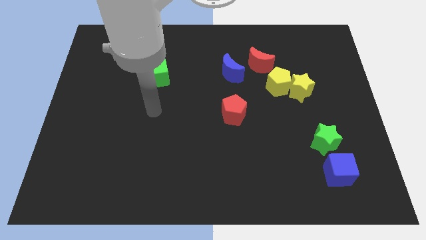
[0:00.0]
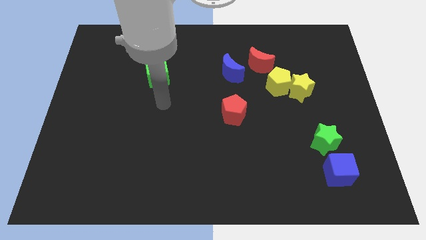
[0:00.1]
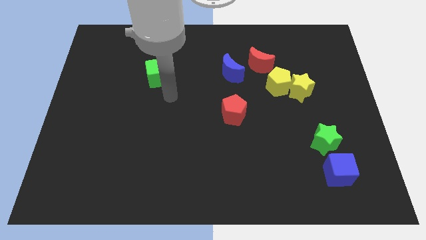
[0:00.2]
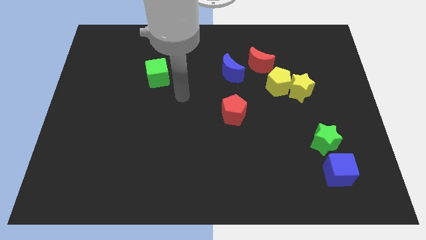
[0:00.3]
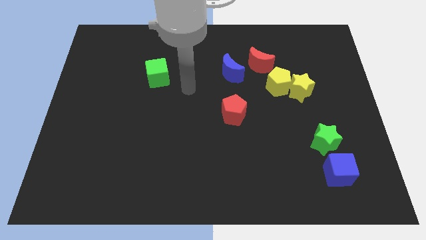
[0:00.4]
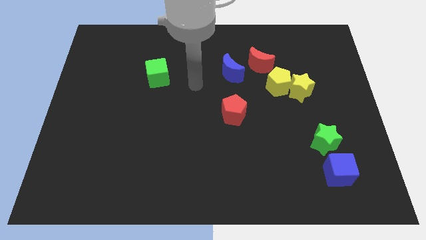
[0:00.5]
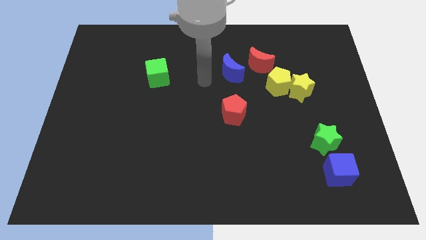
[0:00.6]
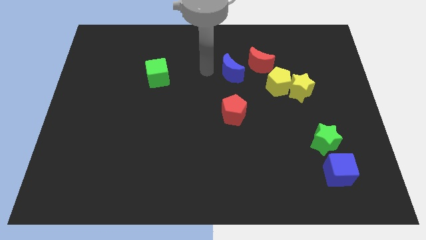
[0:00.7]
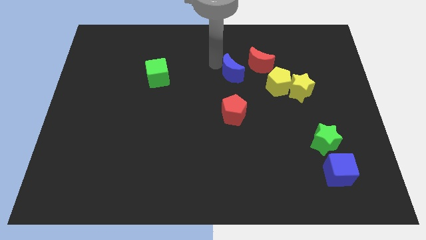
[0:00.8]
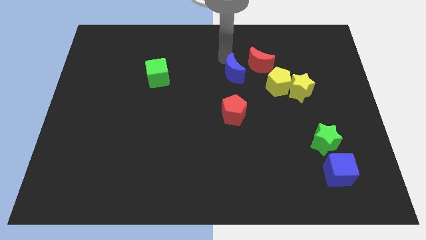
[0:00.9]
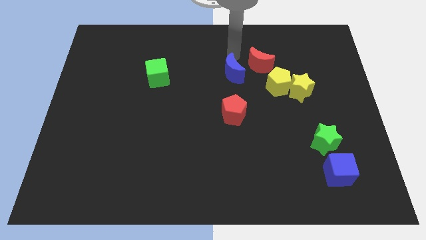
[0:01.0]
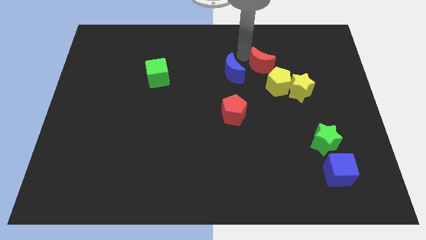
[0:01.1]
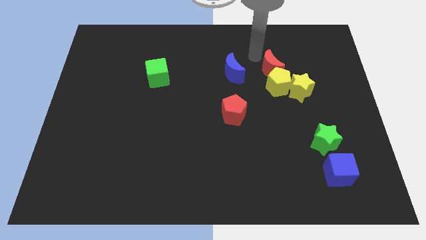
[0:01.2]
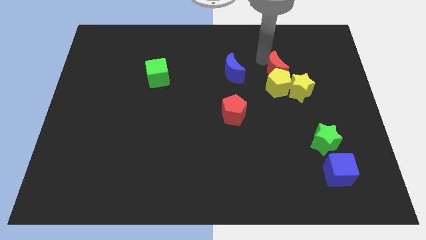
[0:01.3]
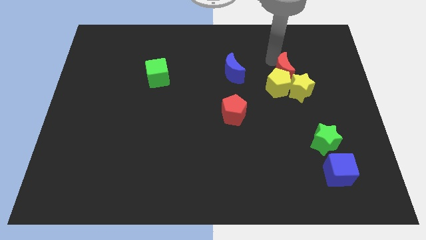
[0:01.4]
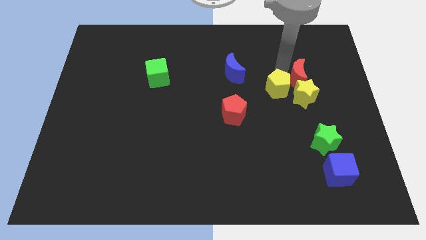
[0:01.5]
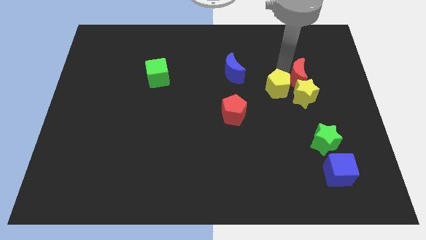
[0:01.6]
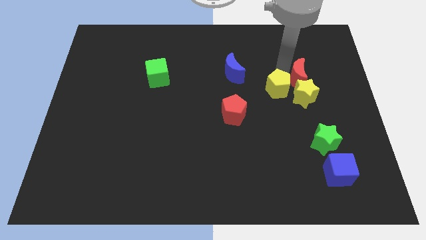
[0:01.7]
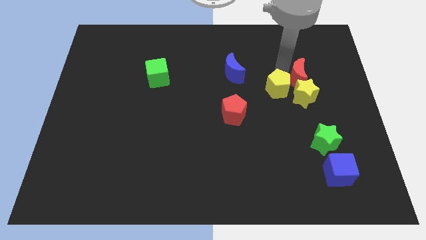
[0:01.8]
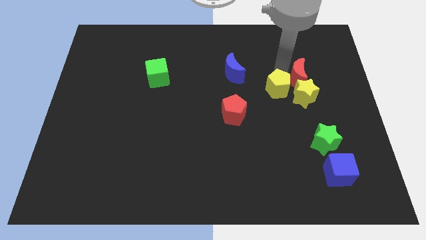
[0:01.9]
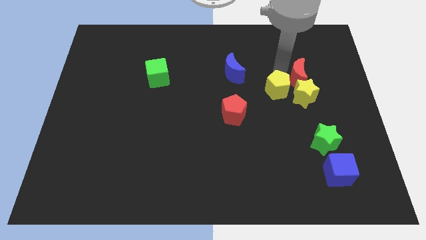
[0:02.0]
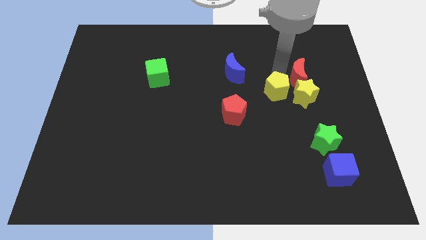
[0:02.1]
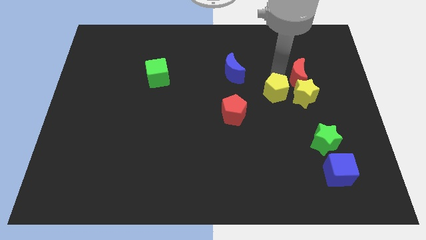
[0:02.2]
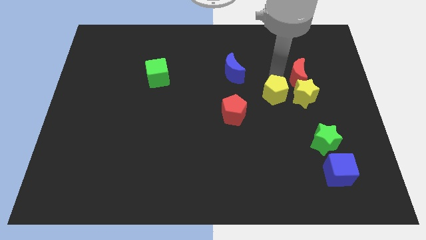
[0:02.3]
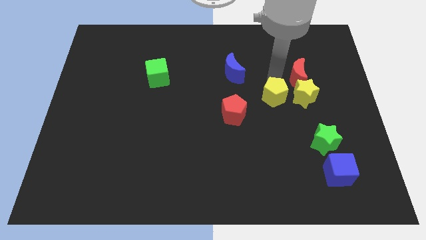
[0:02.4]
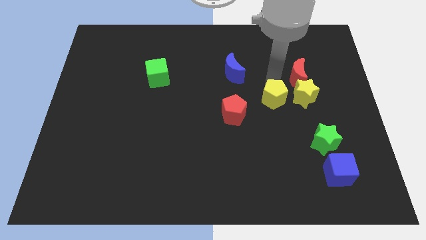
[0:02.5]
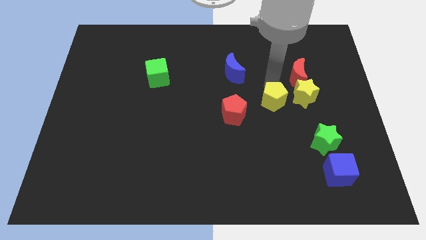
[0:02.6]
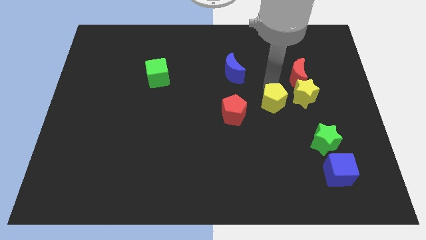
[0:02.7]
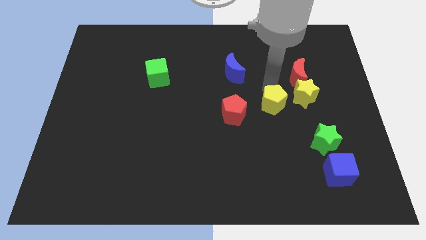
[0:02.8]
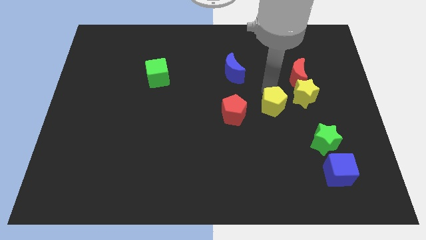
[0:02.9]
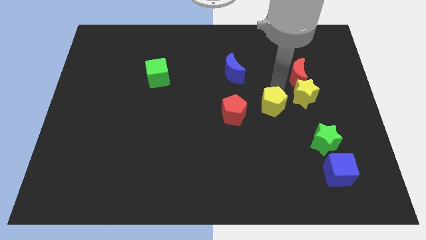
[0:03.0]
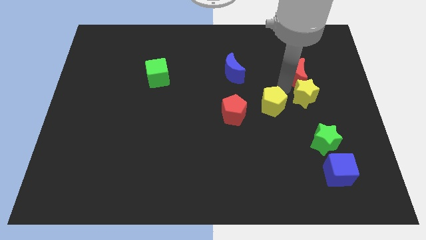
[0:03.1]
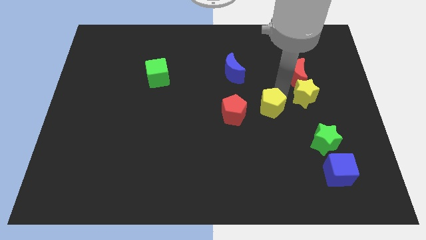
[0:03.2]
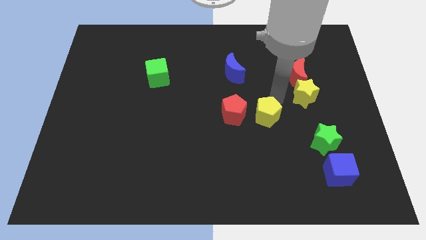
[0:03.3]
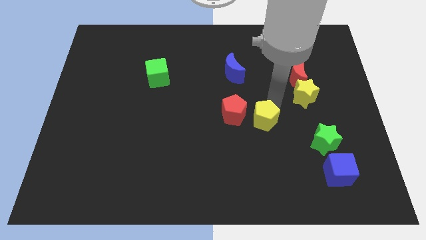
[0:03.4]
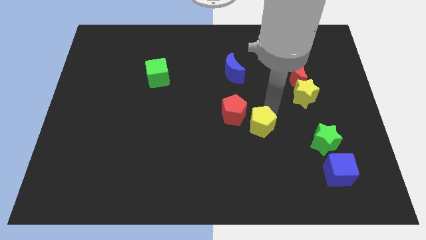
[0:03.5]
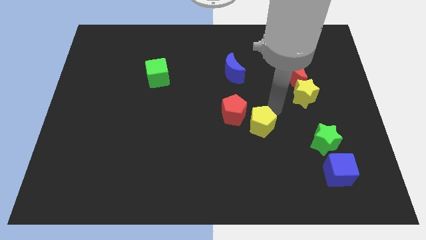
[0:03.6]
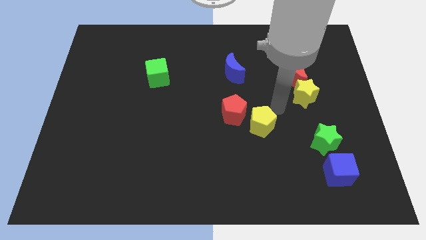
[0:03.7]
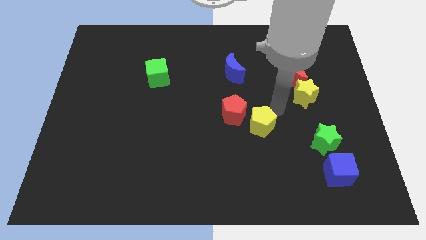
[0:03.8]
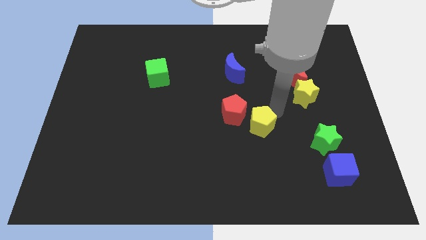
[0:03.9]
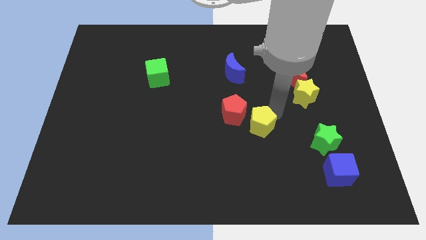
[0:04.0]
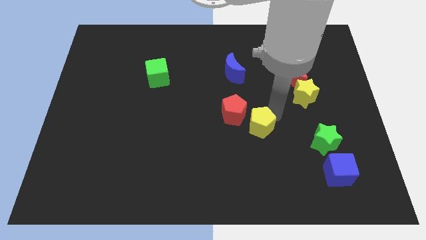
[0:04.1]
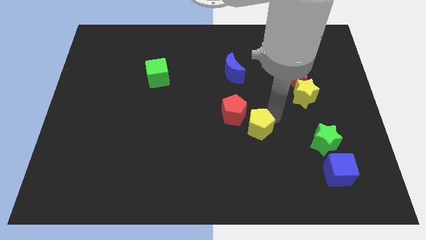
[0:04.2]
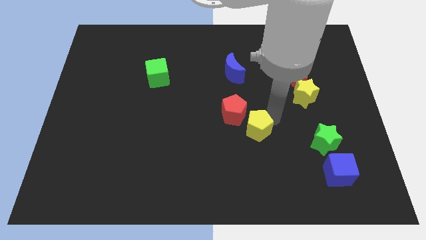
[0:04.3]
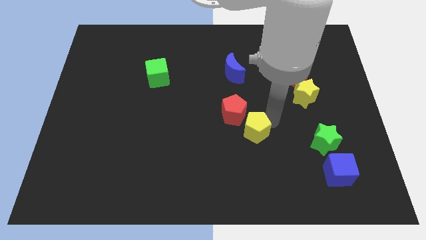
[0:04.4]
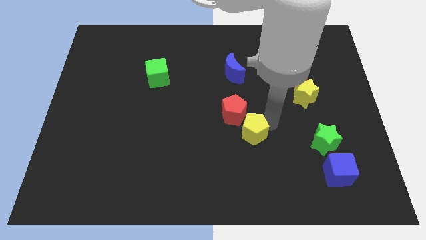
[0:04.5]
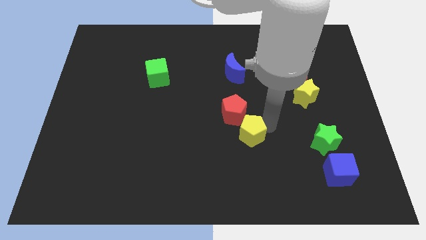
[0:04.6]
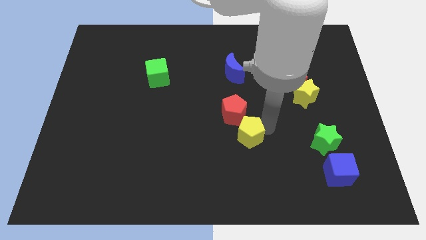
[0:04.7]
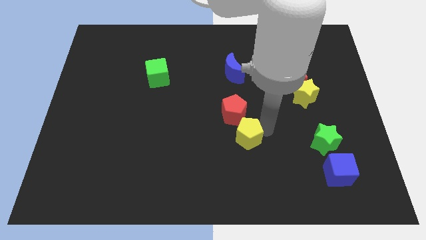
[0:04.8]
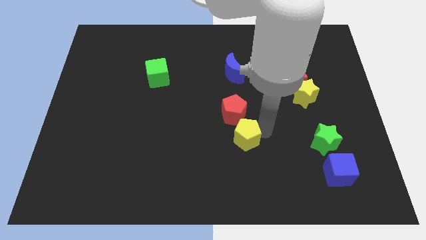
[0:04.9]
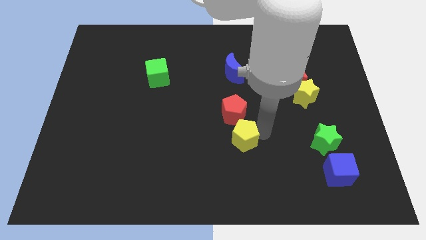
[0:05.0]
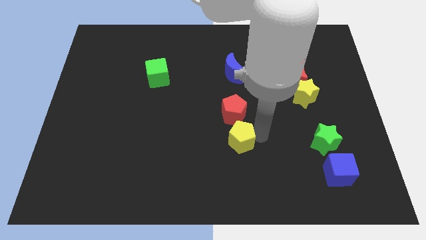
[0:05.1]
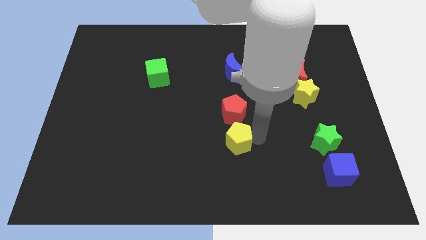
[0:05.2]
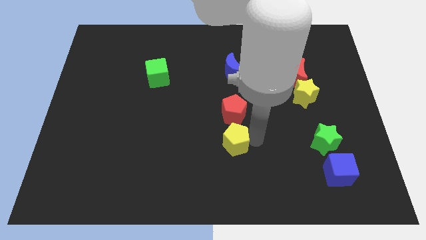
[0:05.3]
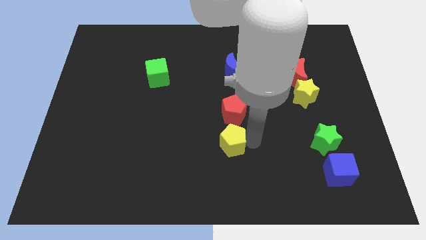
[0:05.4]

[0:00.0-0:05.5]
slide the yellow pentagon diagonally downwards and left

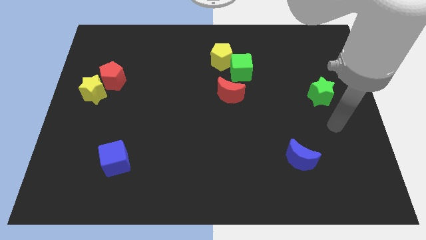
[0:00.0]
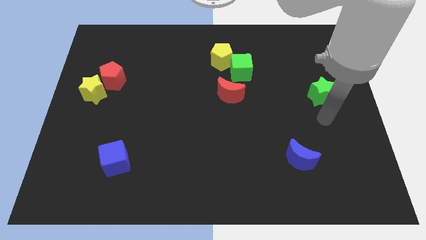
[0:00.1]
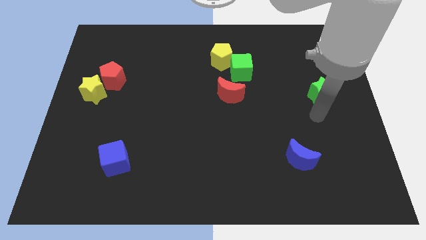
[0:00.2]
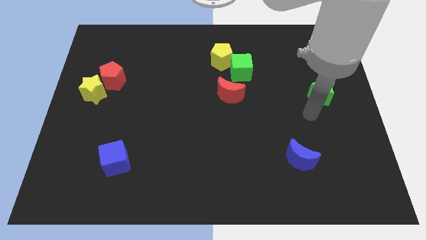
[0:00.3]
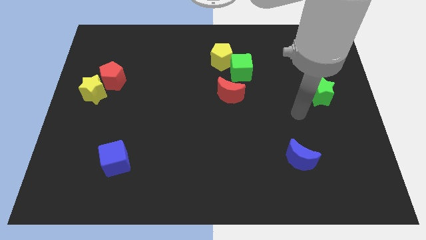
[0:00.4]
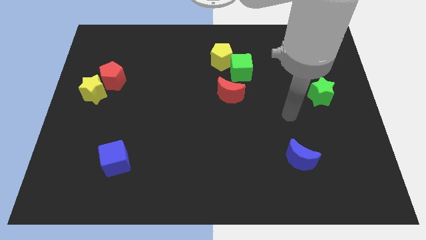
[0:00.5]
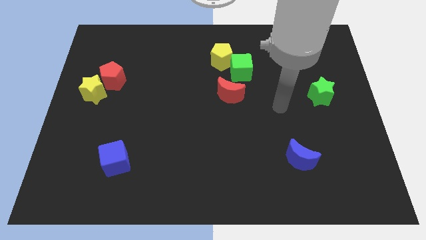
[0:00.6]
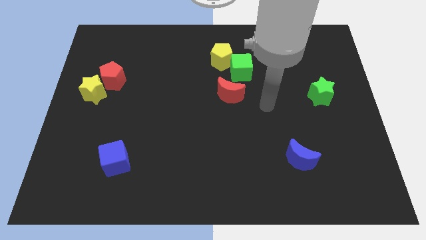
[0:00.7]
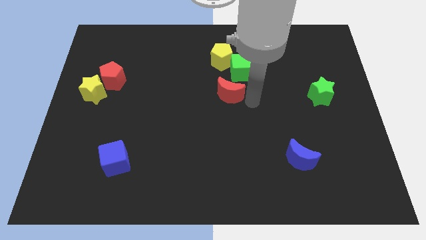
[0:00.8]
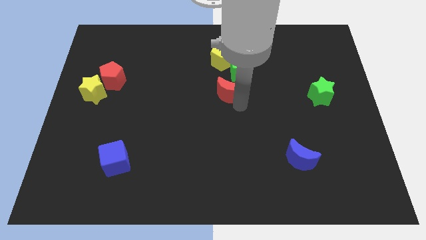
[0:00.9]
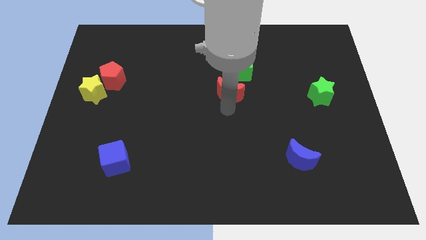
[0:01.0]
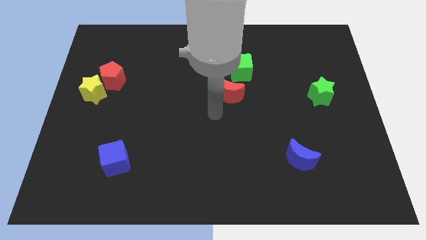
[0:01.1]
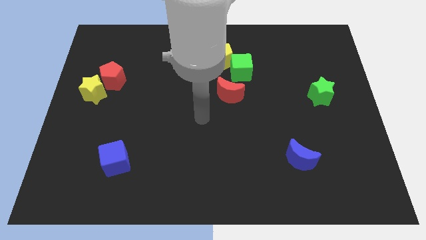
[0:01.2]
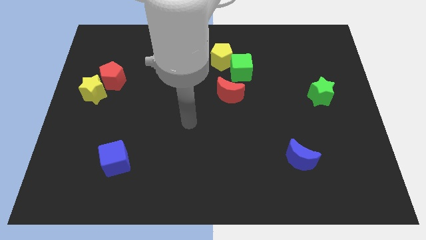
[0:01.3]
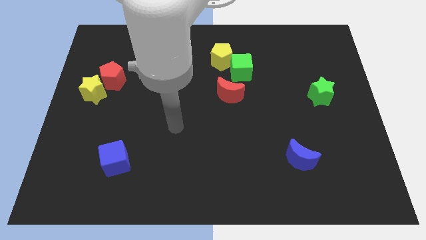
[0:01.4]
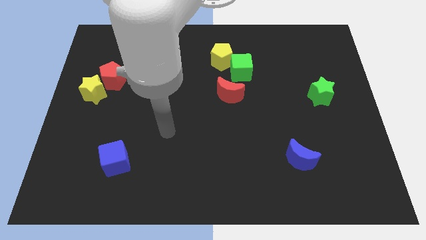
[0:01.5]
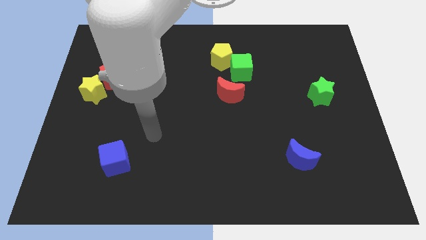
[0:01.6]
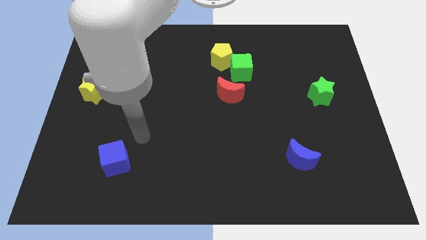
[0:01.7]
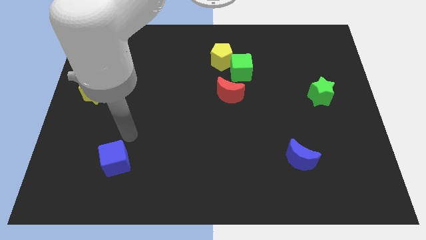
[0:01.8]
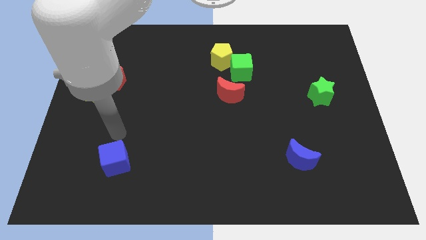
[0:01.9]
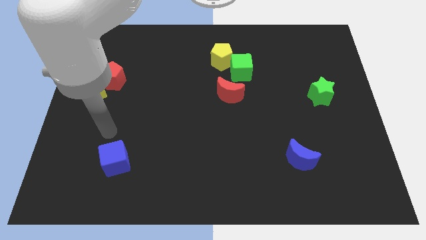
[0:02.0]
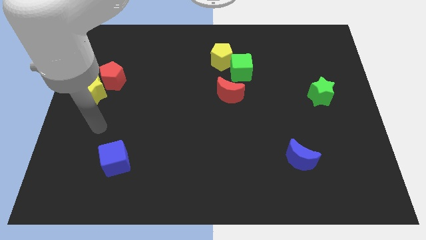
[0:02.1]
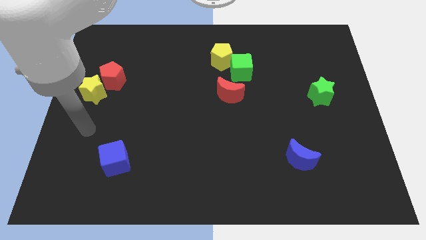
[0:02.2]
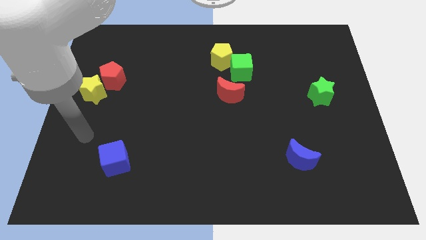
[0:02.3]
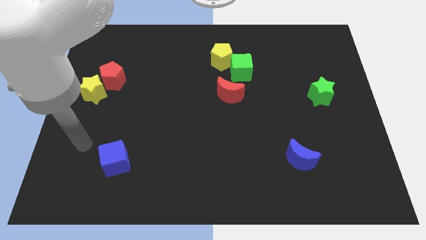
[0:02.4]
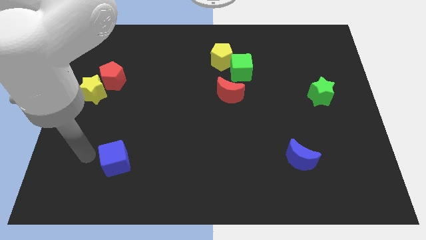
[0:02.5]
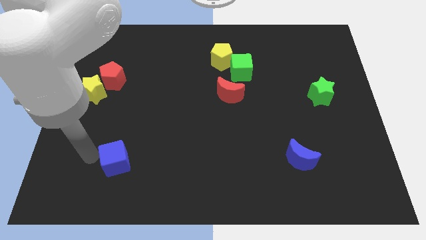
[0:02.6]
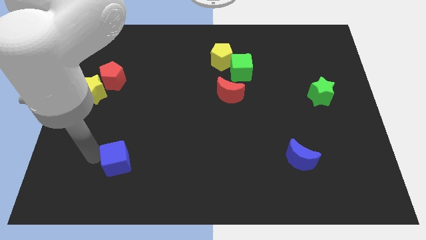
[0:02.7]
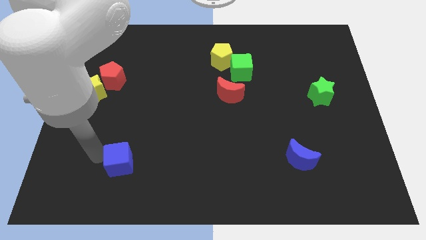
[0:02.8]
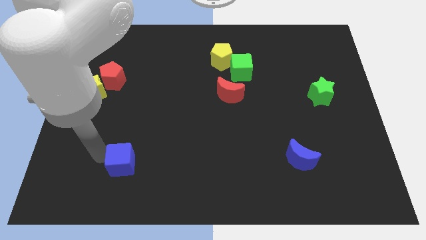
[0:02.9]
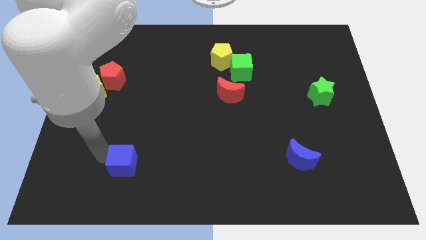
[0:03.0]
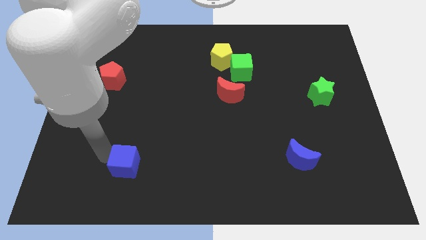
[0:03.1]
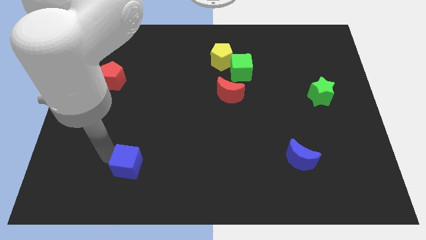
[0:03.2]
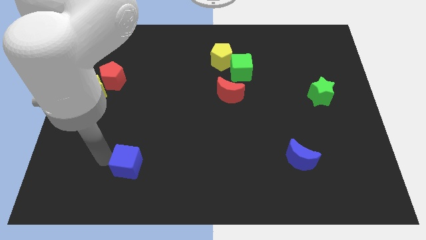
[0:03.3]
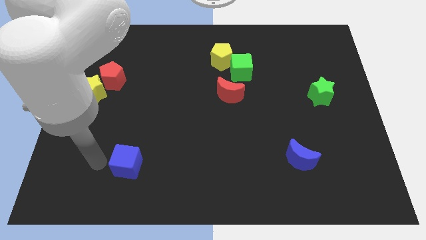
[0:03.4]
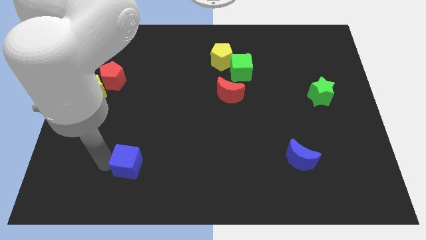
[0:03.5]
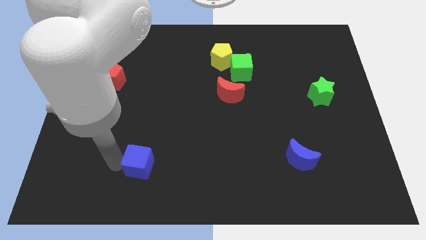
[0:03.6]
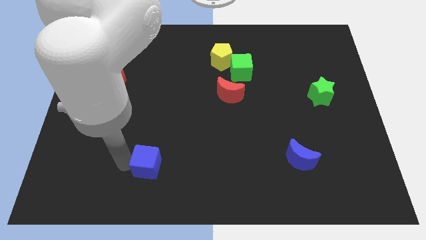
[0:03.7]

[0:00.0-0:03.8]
push the blue cube slightly to the right
